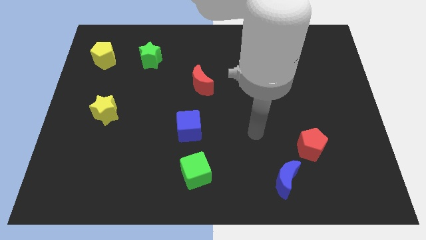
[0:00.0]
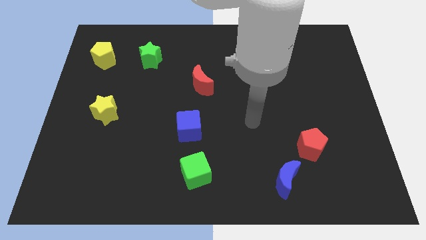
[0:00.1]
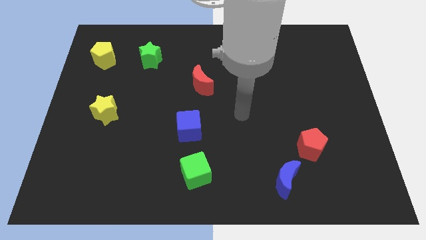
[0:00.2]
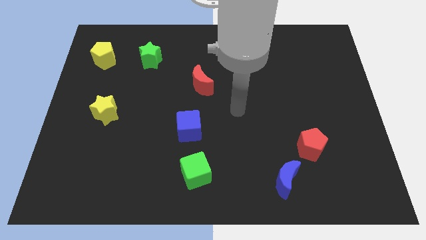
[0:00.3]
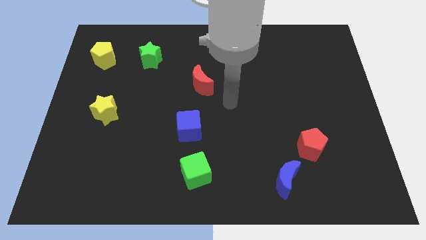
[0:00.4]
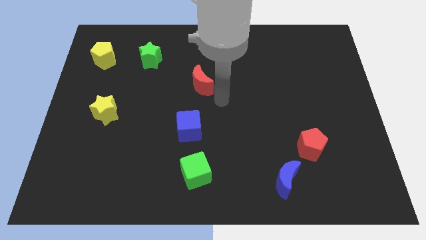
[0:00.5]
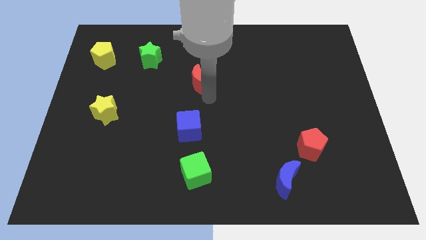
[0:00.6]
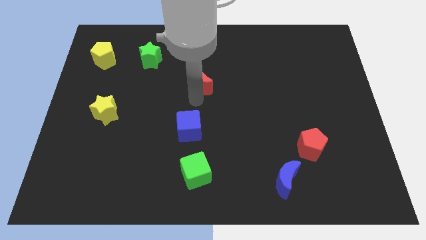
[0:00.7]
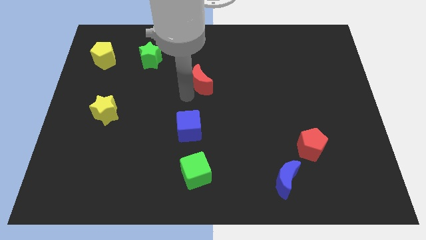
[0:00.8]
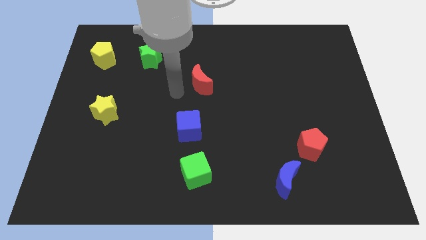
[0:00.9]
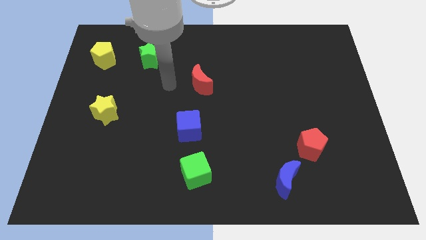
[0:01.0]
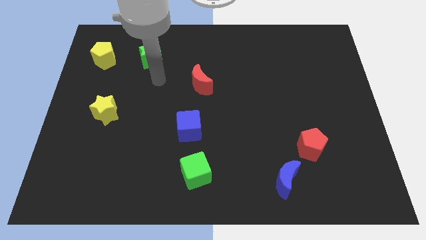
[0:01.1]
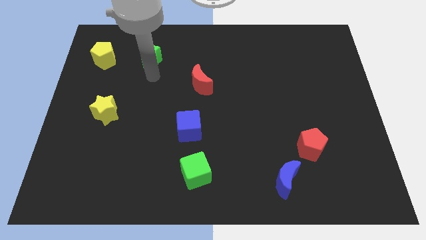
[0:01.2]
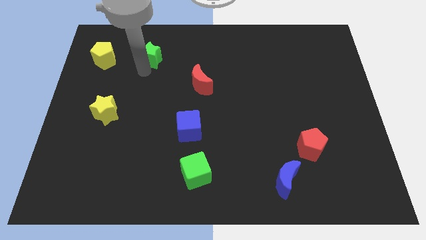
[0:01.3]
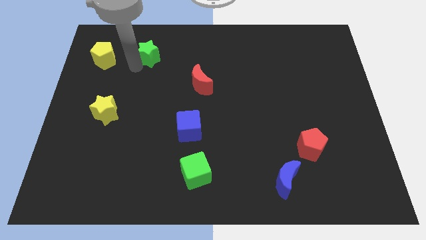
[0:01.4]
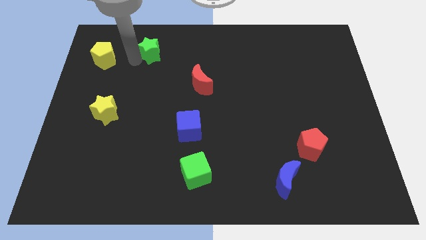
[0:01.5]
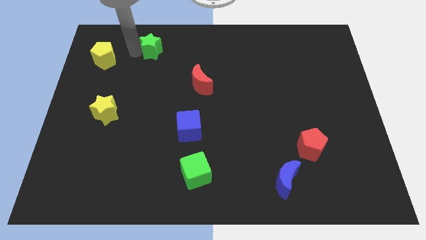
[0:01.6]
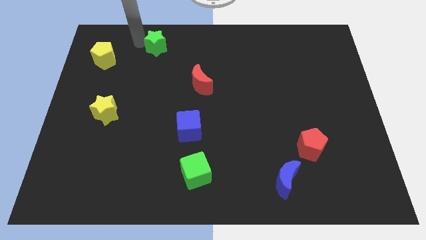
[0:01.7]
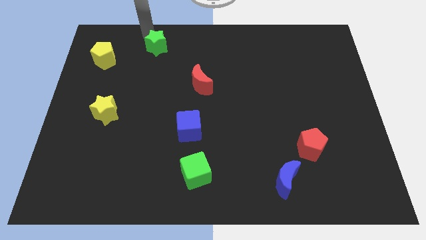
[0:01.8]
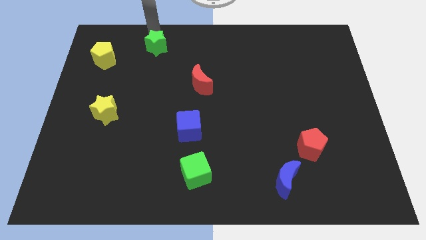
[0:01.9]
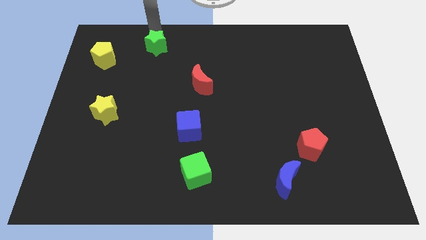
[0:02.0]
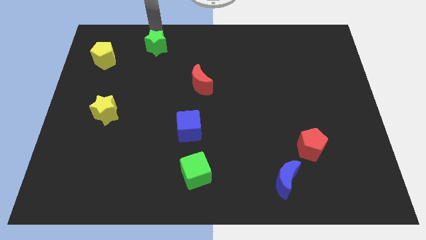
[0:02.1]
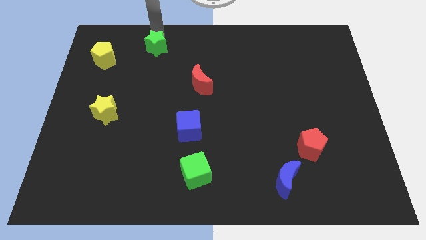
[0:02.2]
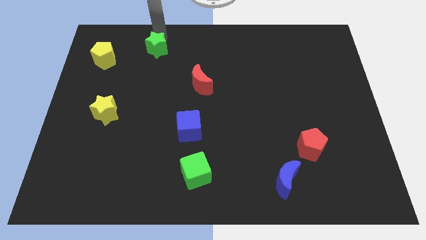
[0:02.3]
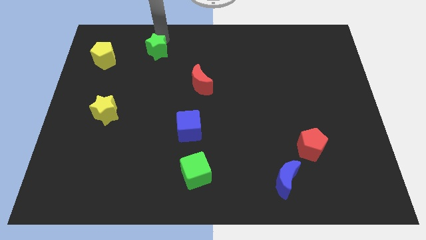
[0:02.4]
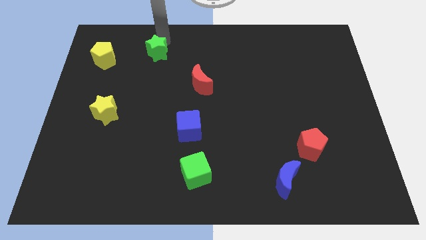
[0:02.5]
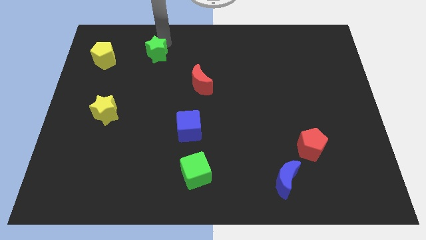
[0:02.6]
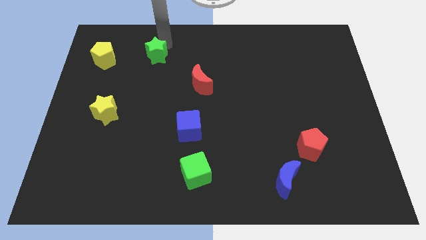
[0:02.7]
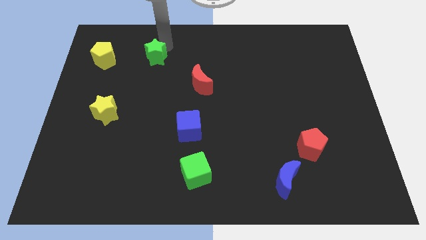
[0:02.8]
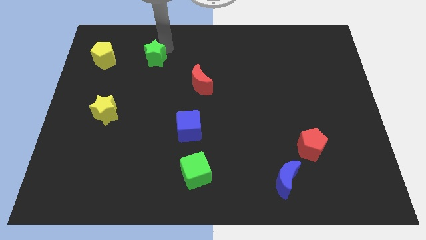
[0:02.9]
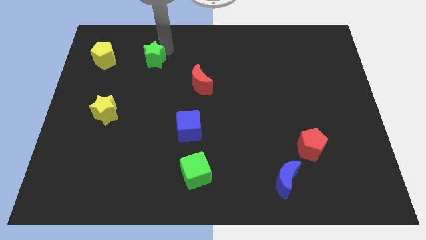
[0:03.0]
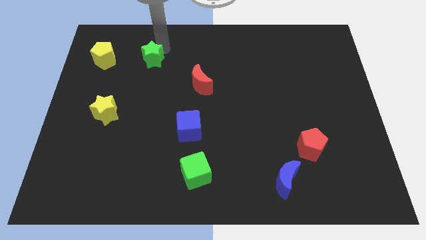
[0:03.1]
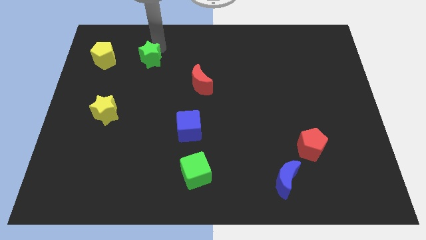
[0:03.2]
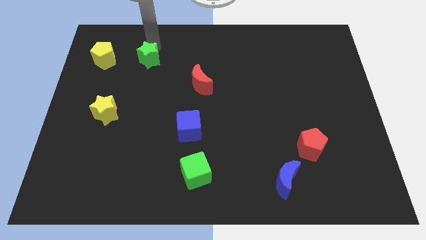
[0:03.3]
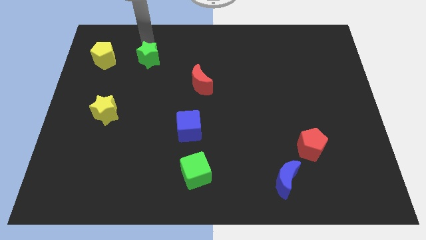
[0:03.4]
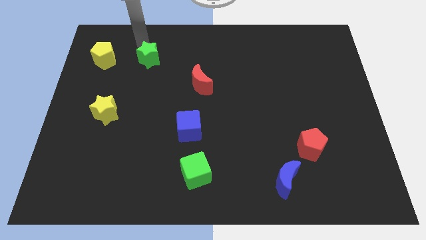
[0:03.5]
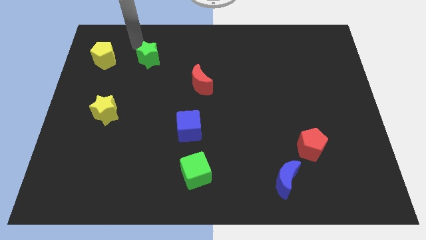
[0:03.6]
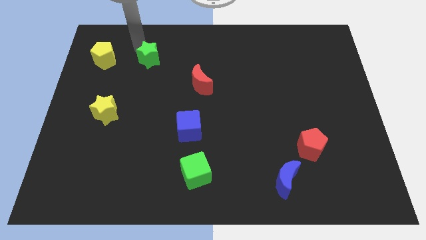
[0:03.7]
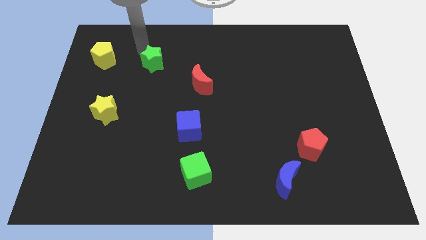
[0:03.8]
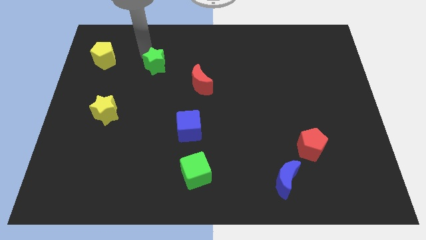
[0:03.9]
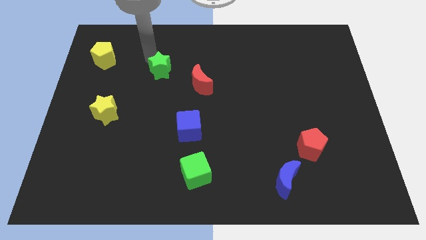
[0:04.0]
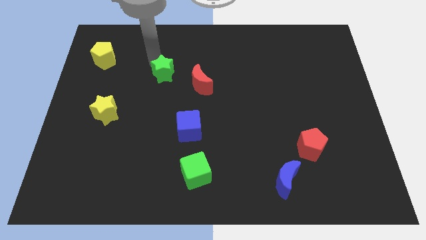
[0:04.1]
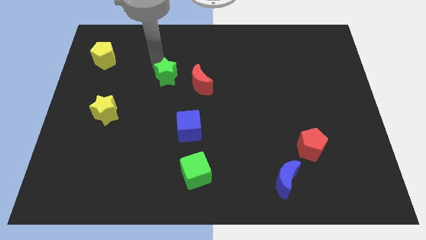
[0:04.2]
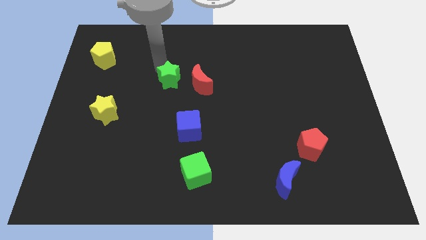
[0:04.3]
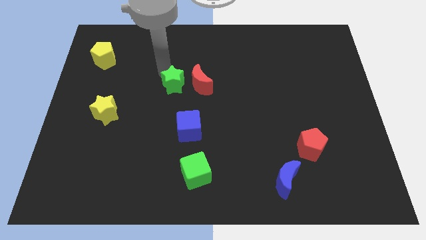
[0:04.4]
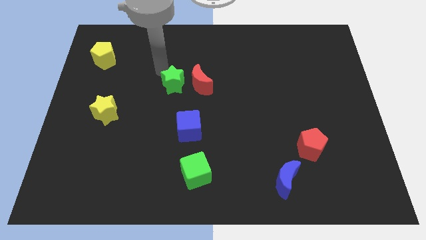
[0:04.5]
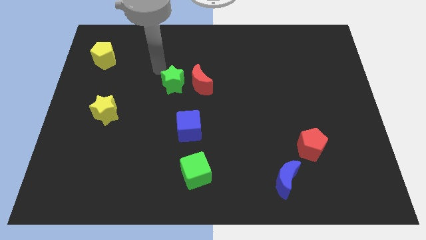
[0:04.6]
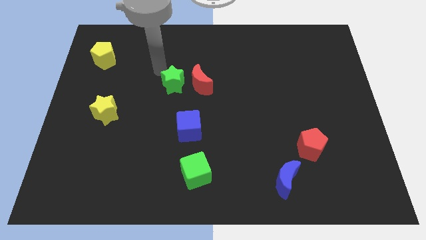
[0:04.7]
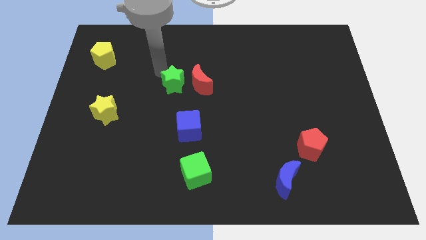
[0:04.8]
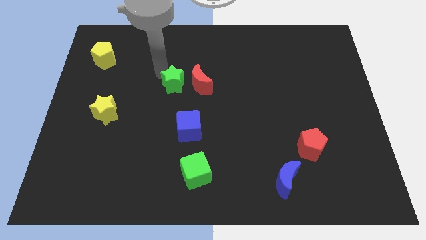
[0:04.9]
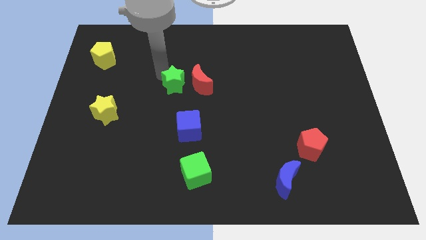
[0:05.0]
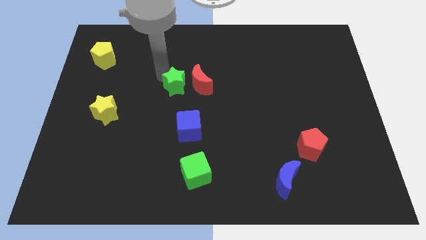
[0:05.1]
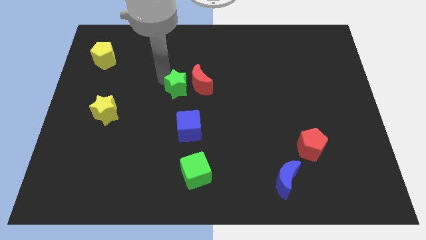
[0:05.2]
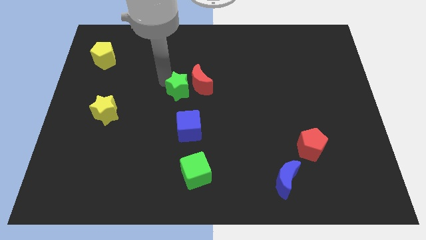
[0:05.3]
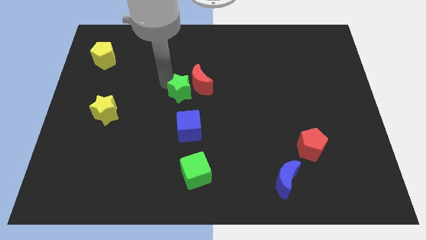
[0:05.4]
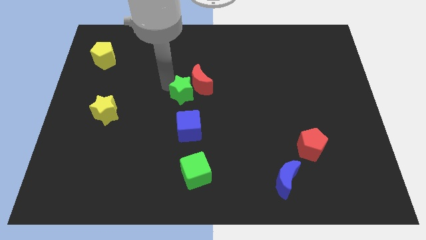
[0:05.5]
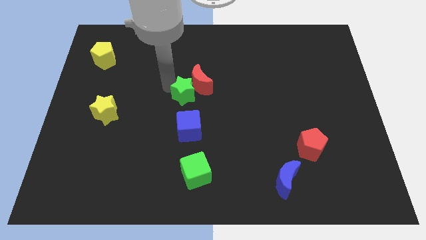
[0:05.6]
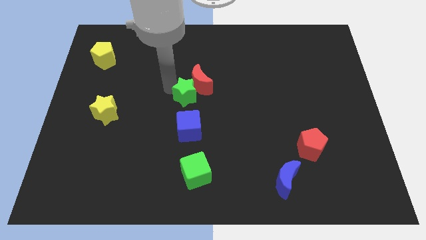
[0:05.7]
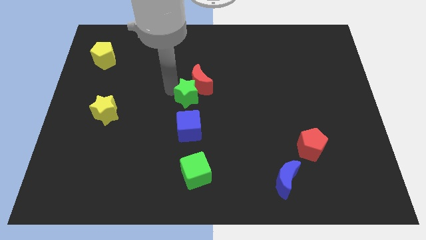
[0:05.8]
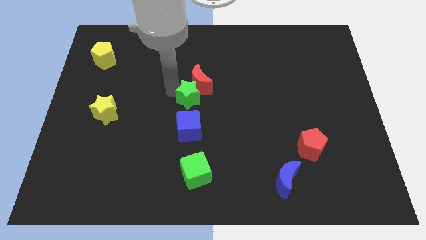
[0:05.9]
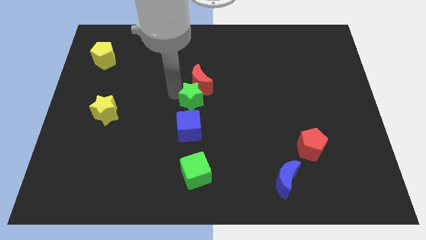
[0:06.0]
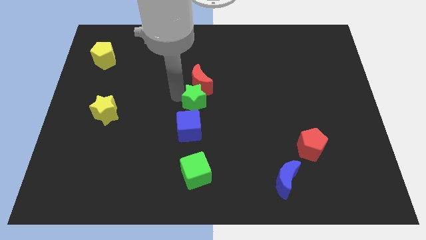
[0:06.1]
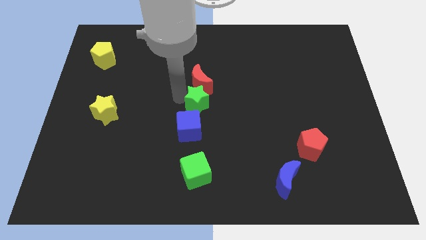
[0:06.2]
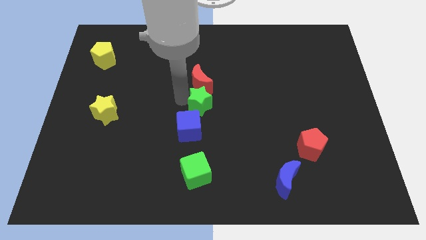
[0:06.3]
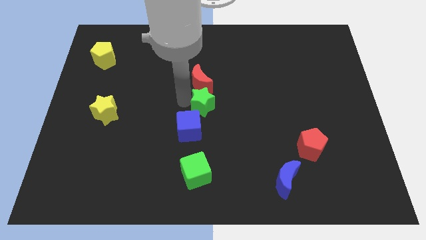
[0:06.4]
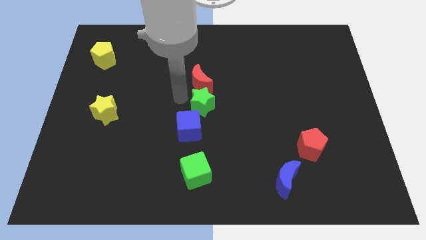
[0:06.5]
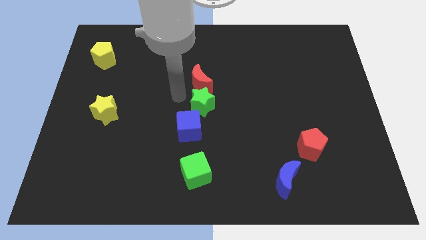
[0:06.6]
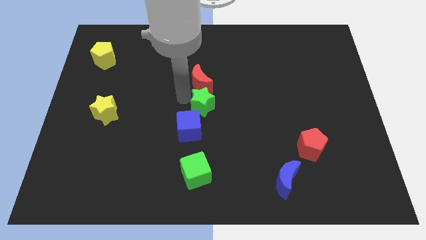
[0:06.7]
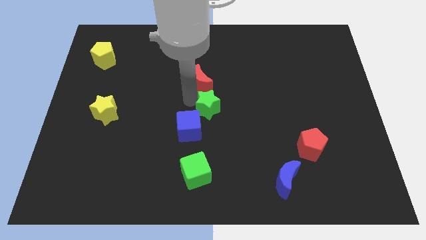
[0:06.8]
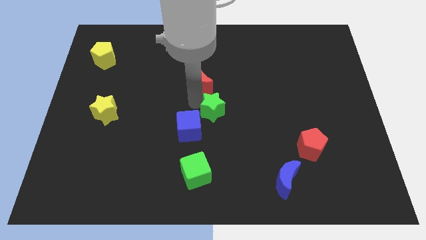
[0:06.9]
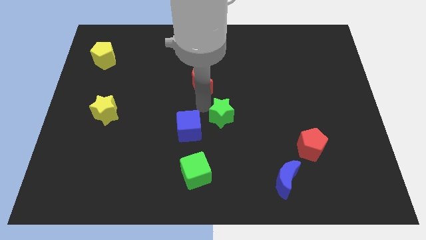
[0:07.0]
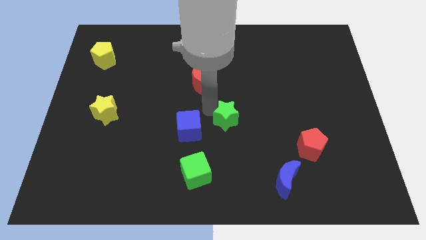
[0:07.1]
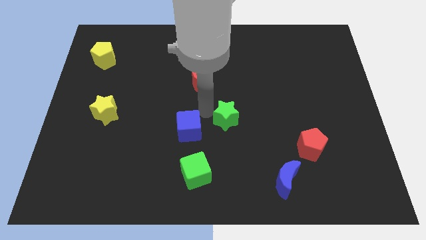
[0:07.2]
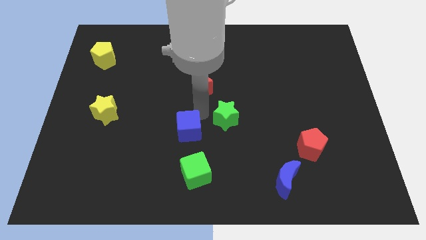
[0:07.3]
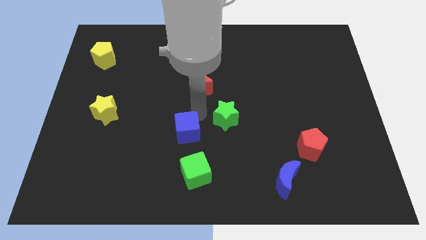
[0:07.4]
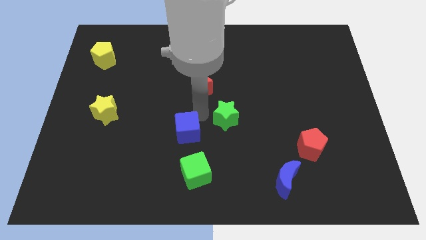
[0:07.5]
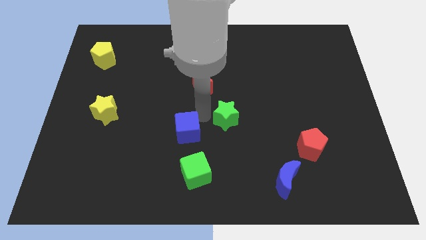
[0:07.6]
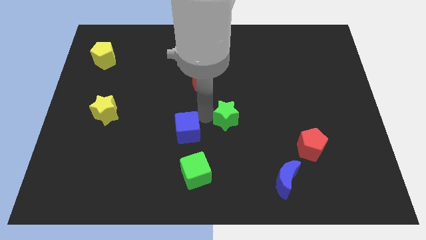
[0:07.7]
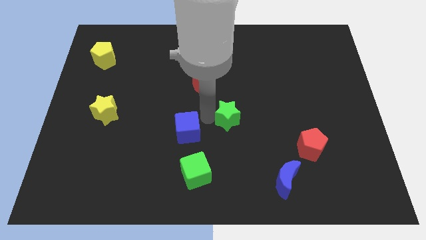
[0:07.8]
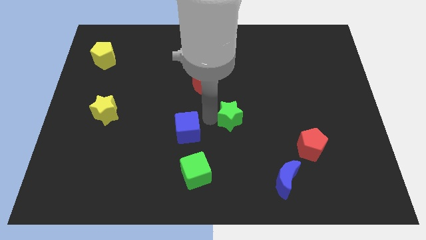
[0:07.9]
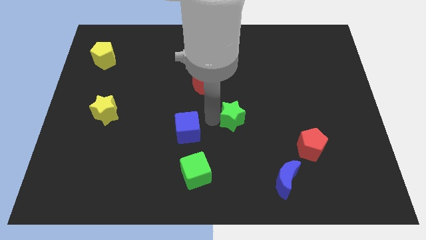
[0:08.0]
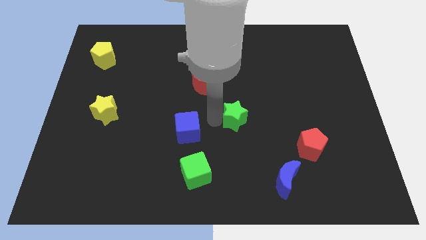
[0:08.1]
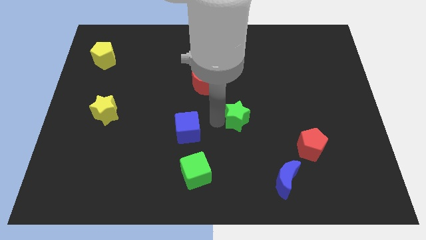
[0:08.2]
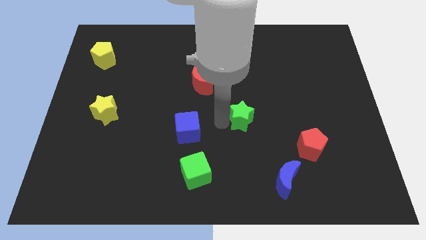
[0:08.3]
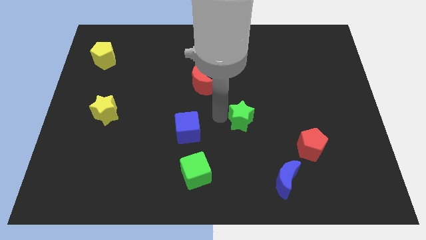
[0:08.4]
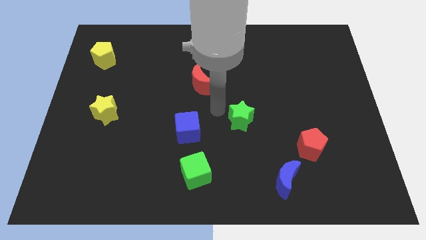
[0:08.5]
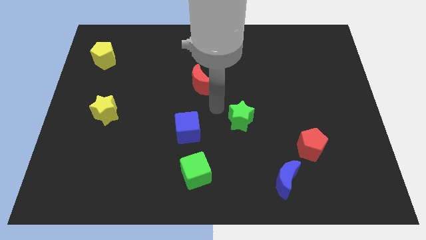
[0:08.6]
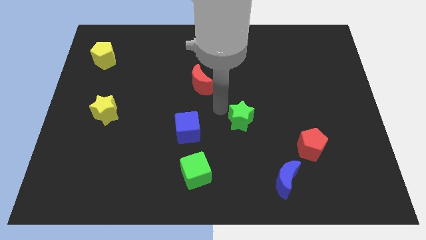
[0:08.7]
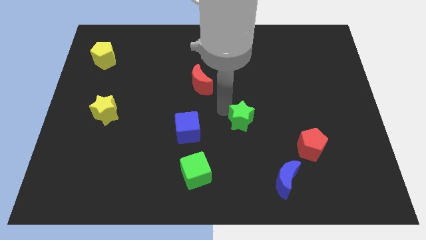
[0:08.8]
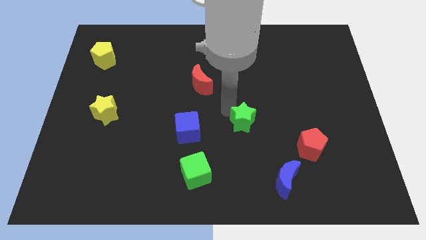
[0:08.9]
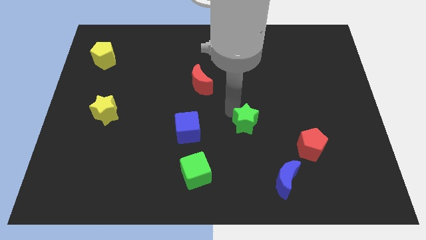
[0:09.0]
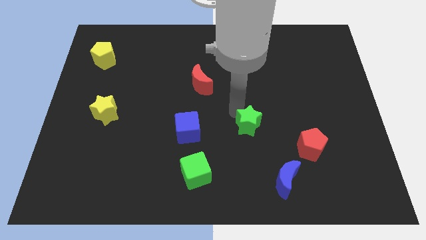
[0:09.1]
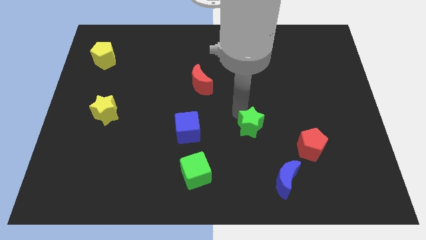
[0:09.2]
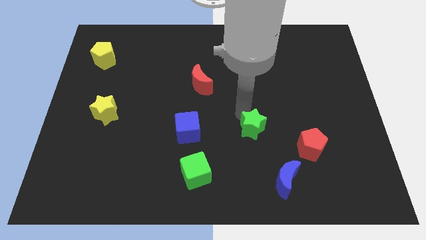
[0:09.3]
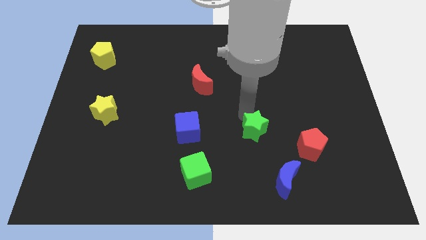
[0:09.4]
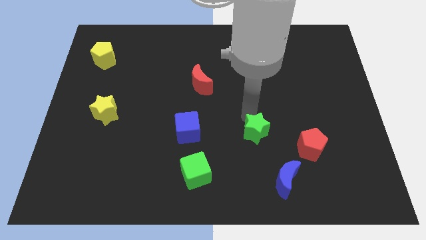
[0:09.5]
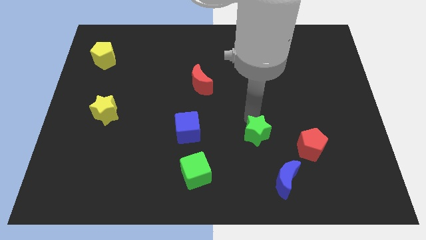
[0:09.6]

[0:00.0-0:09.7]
move the green star to the top side of the blue moon
